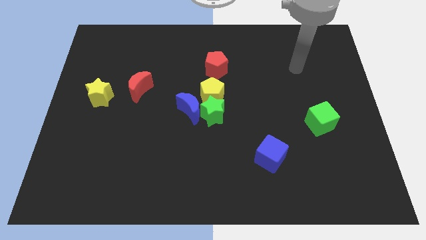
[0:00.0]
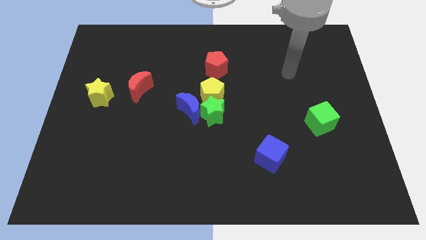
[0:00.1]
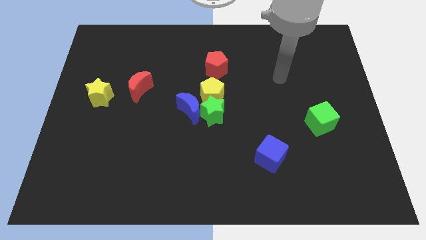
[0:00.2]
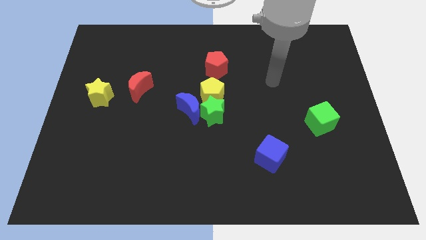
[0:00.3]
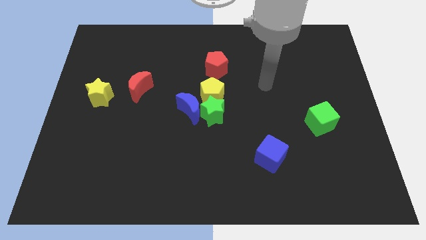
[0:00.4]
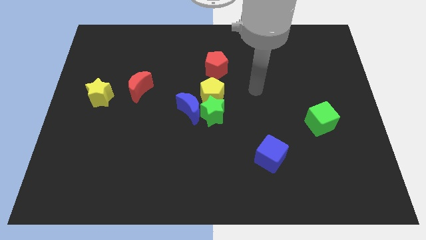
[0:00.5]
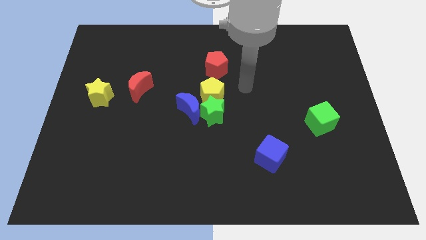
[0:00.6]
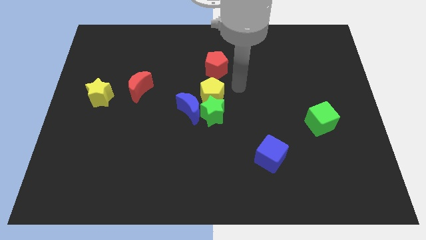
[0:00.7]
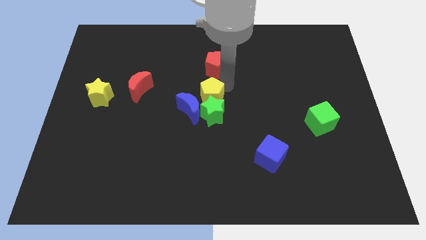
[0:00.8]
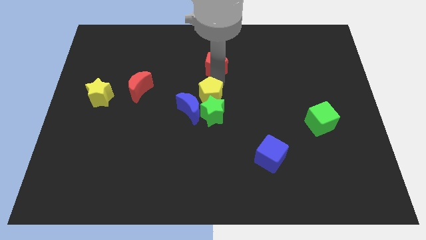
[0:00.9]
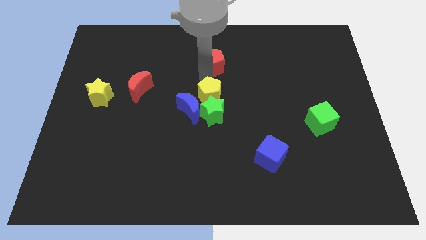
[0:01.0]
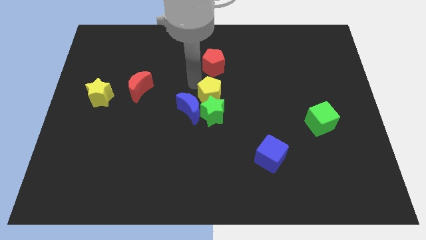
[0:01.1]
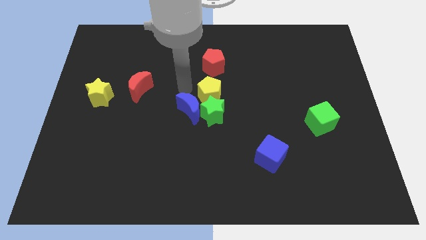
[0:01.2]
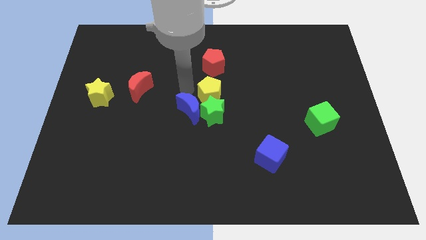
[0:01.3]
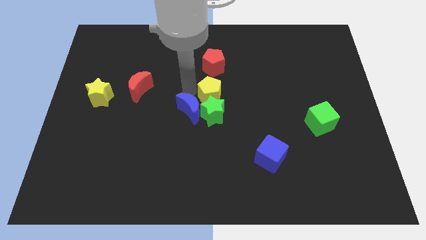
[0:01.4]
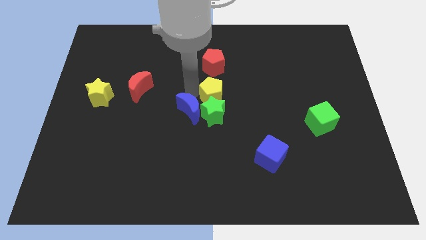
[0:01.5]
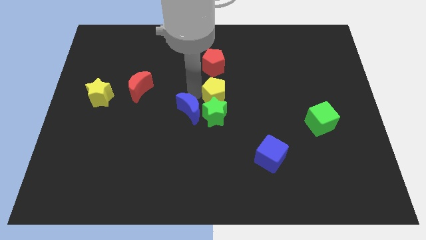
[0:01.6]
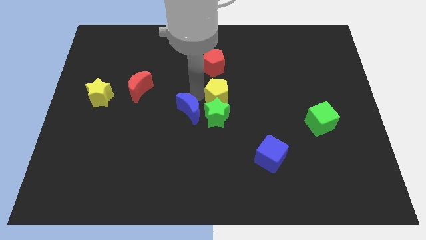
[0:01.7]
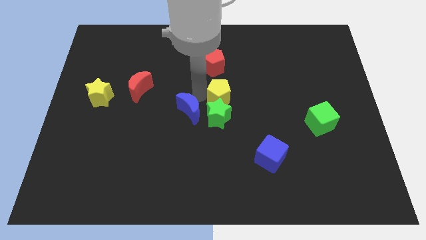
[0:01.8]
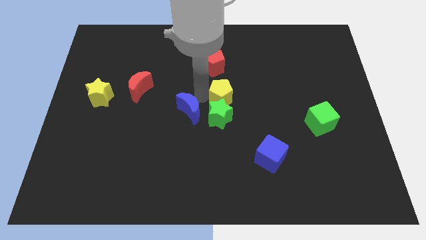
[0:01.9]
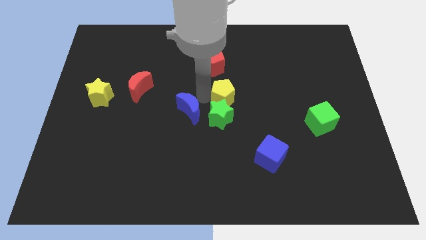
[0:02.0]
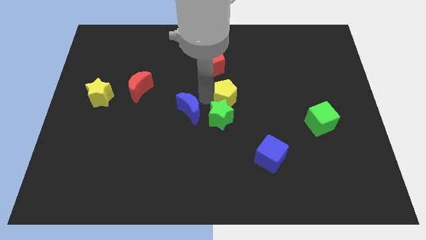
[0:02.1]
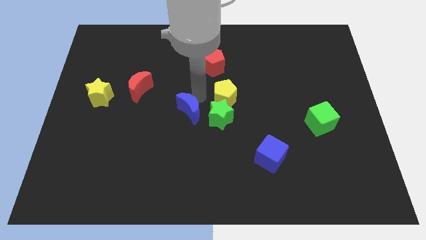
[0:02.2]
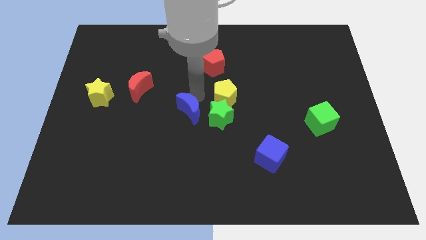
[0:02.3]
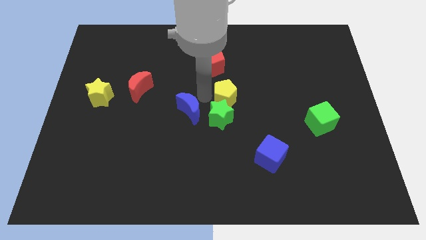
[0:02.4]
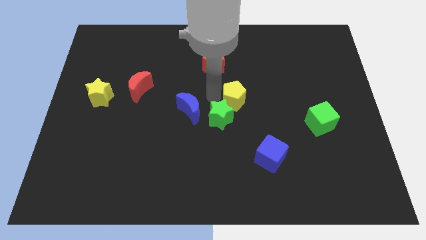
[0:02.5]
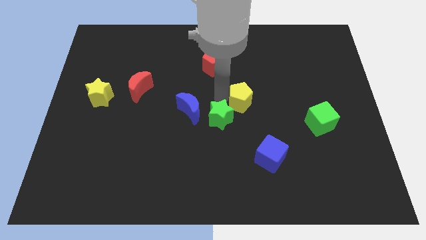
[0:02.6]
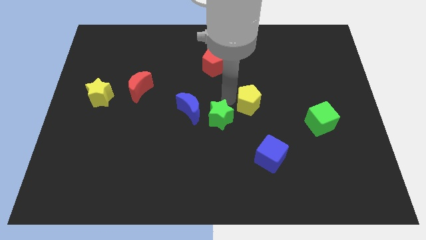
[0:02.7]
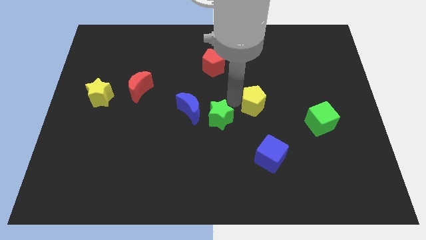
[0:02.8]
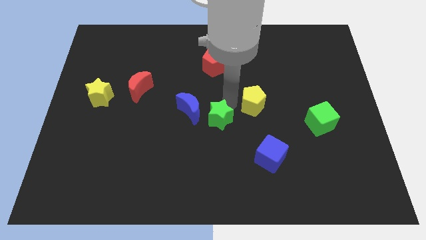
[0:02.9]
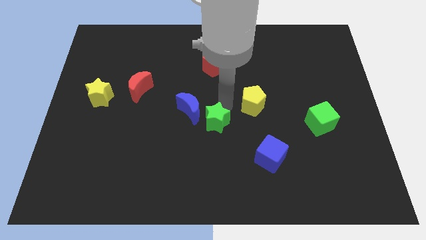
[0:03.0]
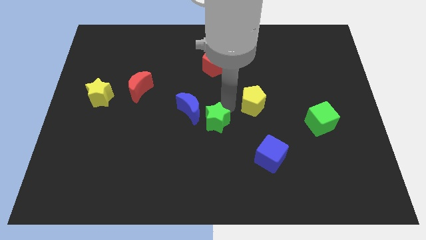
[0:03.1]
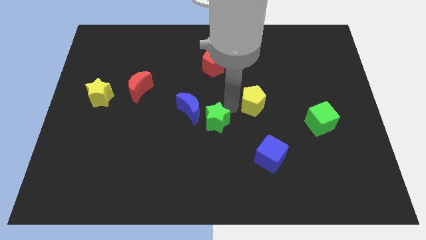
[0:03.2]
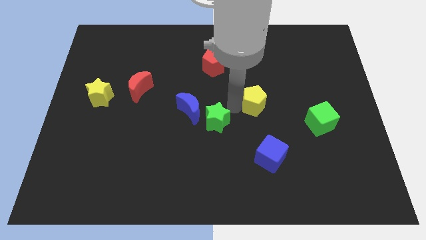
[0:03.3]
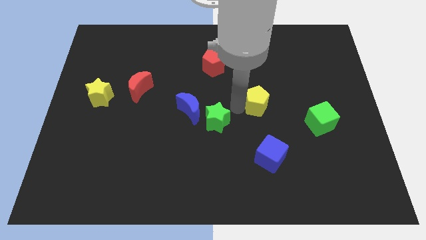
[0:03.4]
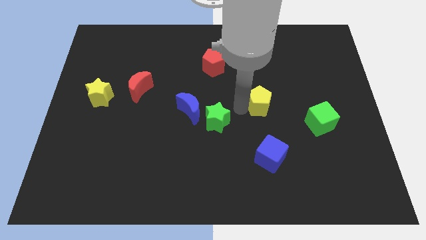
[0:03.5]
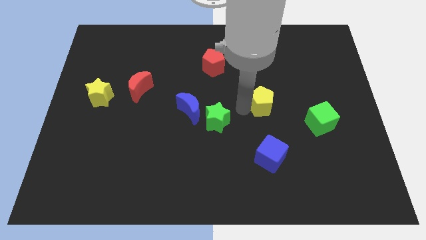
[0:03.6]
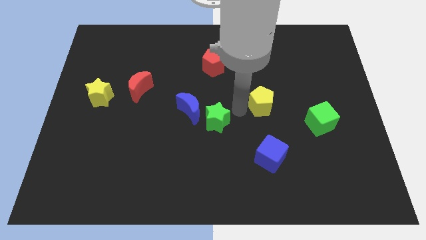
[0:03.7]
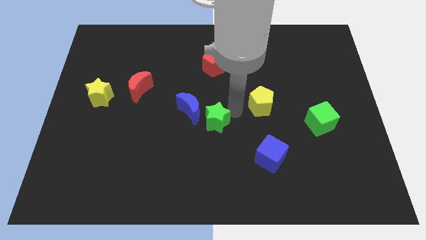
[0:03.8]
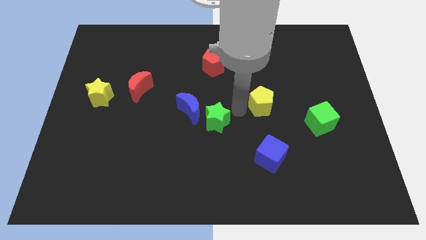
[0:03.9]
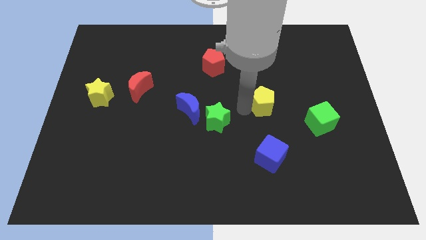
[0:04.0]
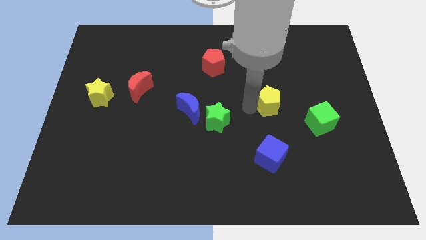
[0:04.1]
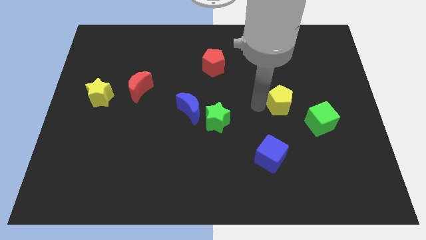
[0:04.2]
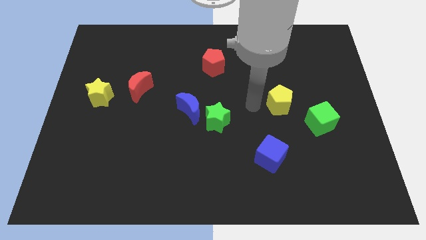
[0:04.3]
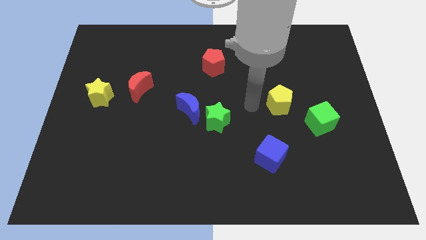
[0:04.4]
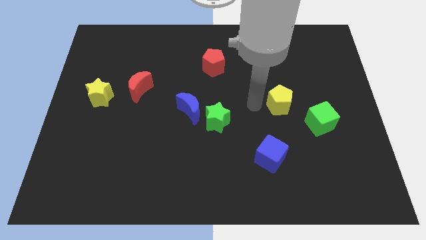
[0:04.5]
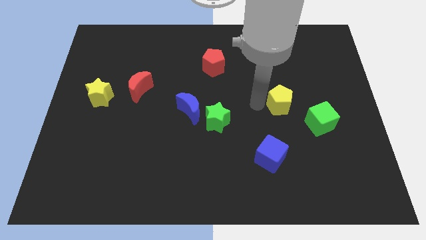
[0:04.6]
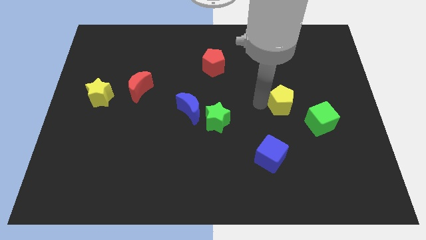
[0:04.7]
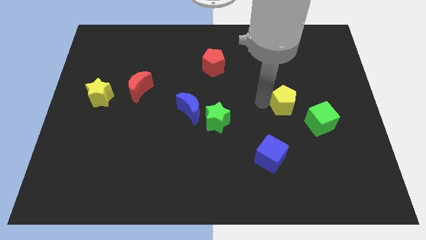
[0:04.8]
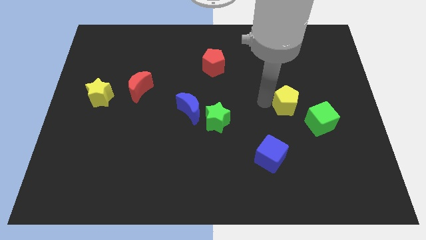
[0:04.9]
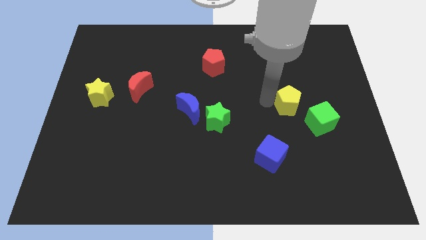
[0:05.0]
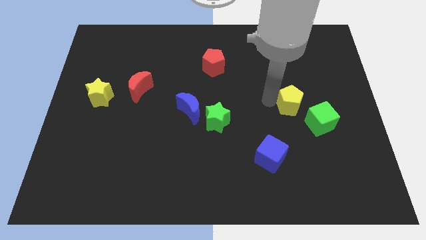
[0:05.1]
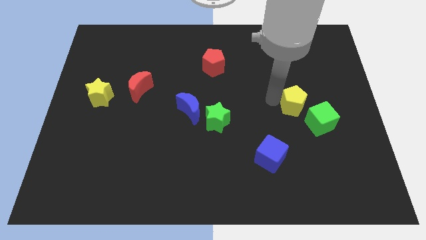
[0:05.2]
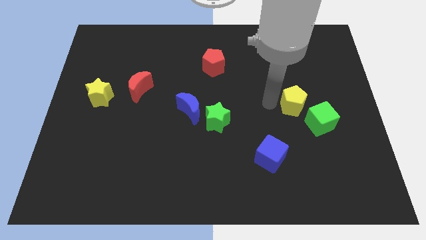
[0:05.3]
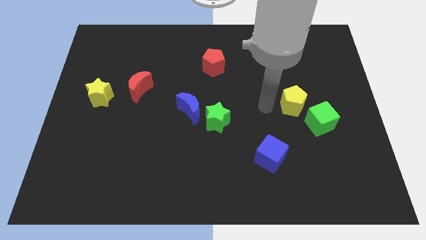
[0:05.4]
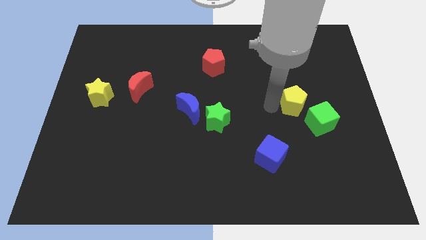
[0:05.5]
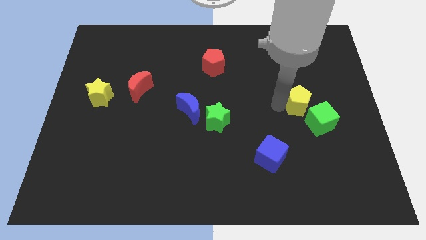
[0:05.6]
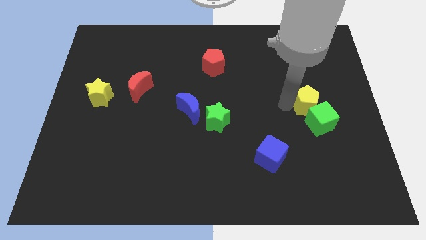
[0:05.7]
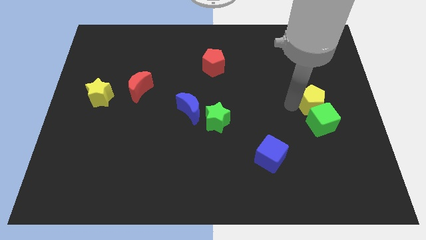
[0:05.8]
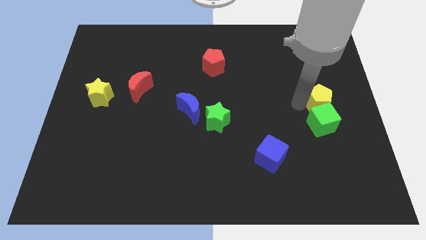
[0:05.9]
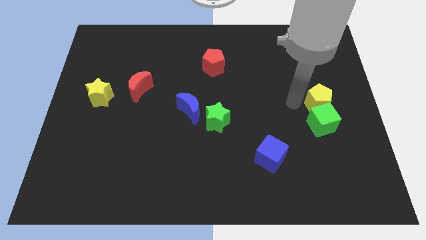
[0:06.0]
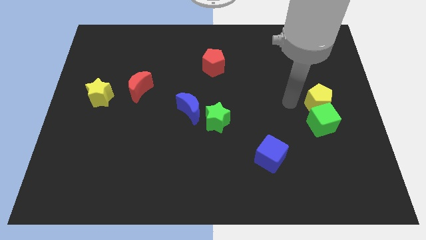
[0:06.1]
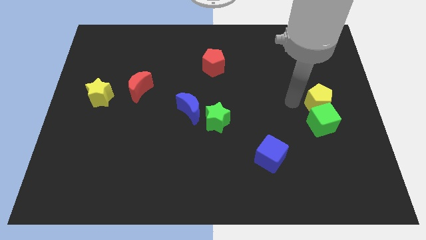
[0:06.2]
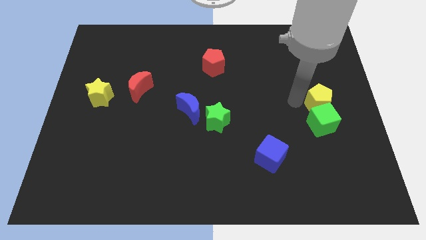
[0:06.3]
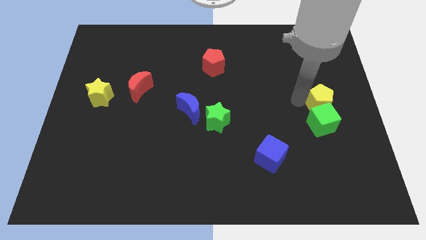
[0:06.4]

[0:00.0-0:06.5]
put the yellow pentagon to the right side of the board

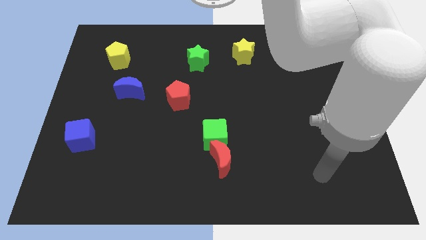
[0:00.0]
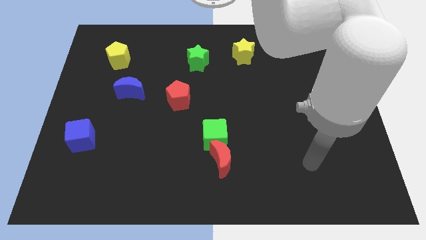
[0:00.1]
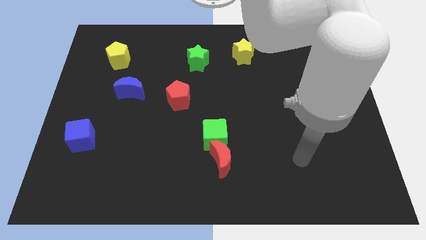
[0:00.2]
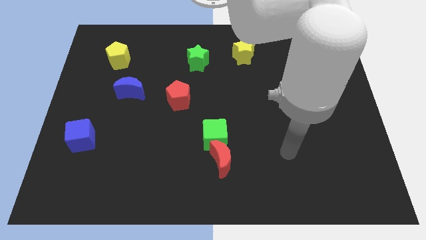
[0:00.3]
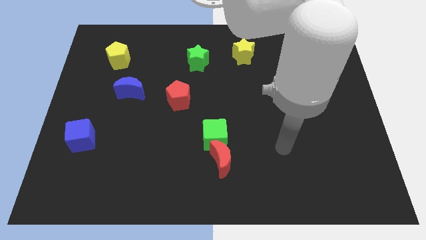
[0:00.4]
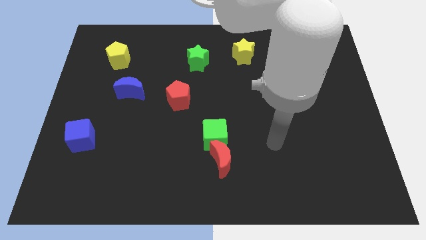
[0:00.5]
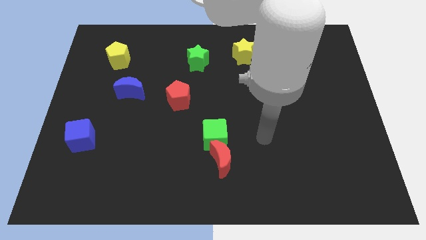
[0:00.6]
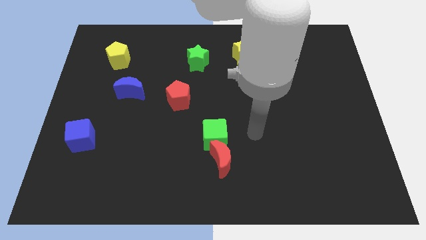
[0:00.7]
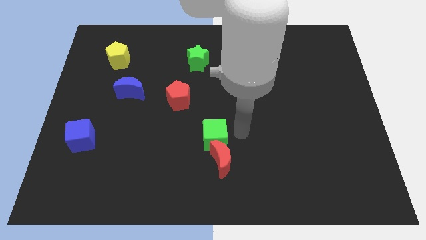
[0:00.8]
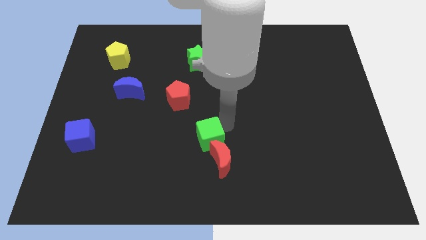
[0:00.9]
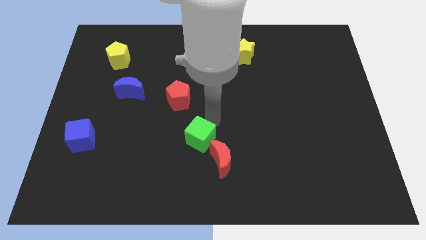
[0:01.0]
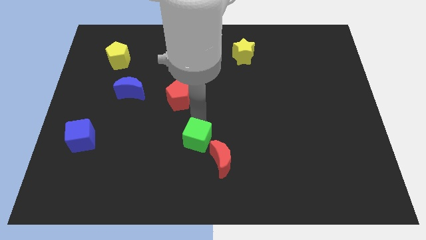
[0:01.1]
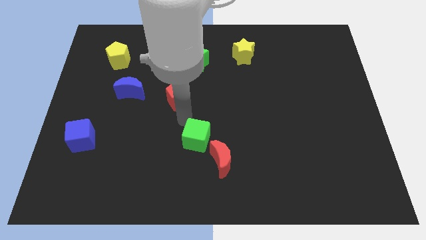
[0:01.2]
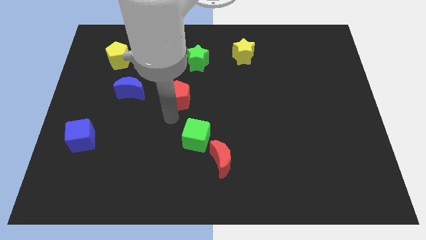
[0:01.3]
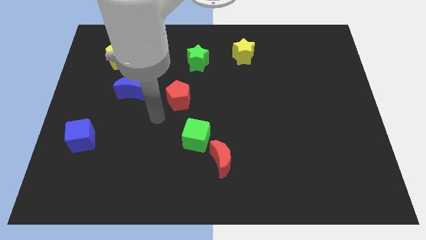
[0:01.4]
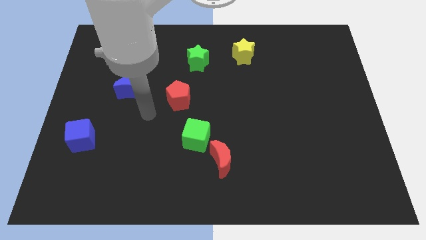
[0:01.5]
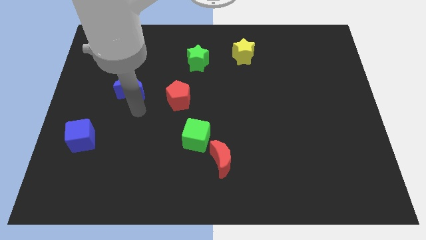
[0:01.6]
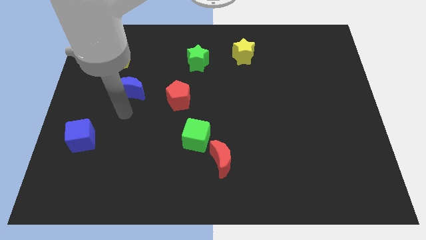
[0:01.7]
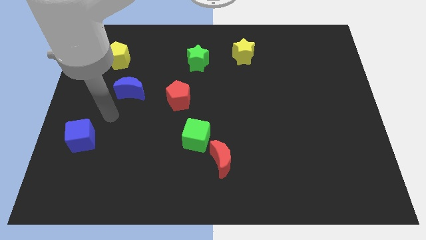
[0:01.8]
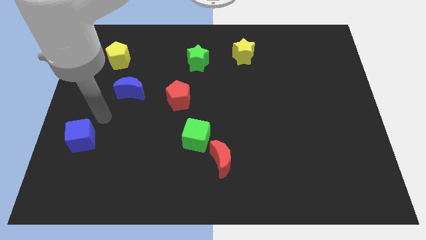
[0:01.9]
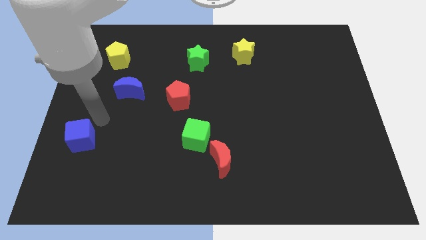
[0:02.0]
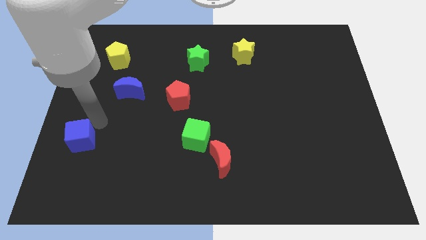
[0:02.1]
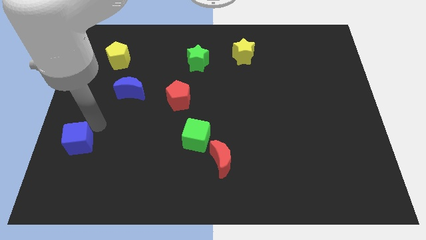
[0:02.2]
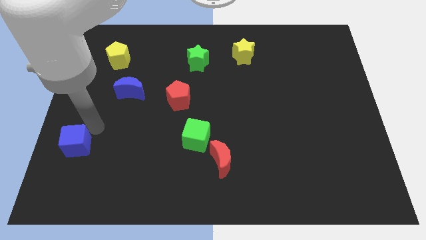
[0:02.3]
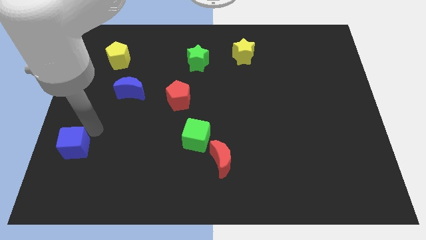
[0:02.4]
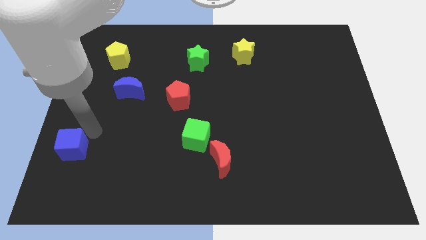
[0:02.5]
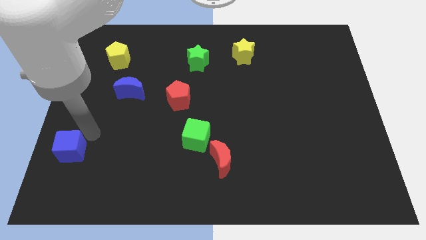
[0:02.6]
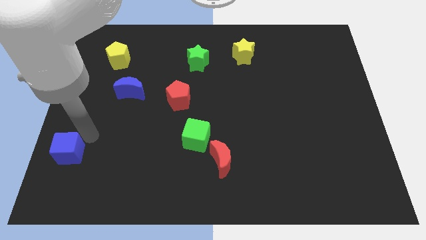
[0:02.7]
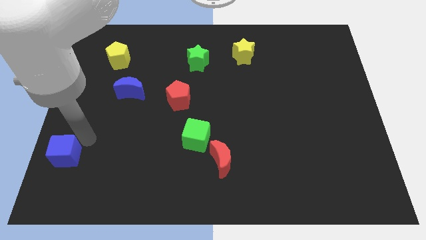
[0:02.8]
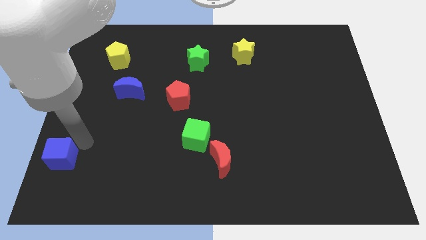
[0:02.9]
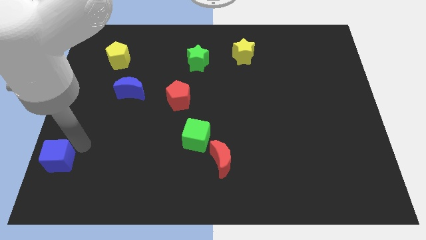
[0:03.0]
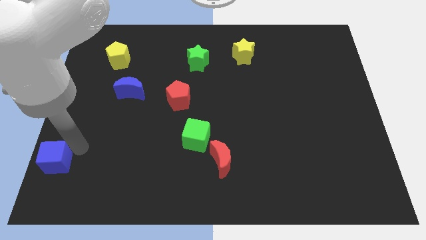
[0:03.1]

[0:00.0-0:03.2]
move the blue cube to the bottom left
